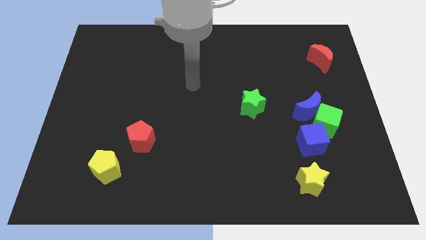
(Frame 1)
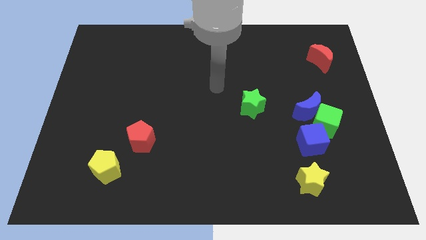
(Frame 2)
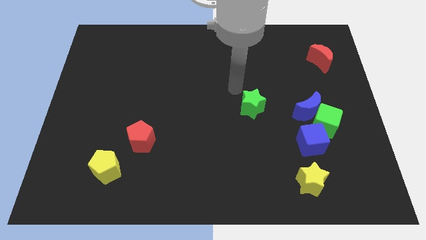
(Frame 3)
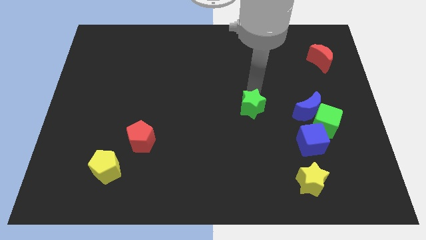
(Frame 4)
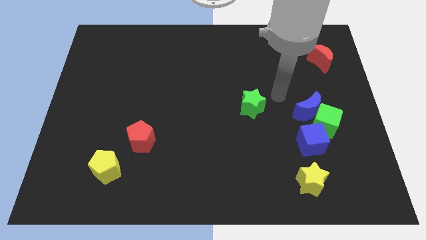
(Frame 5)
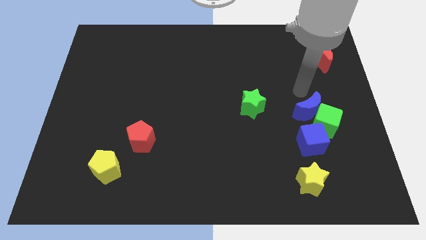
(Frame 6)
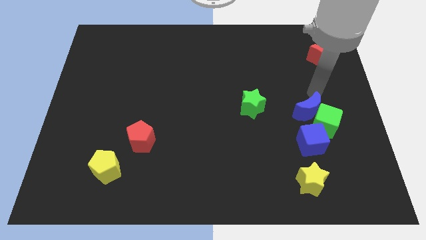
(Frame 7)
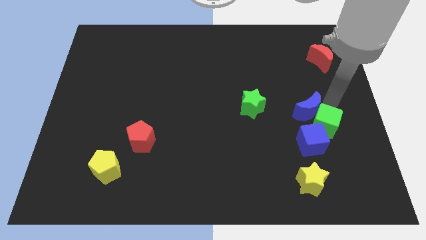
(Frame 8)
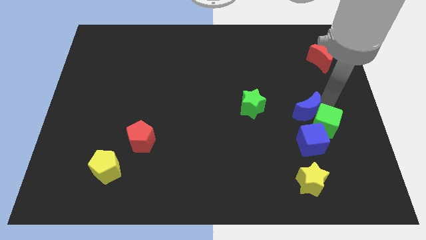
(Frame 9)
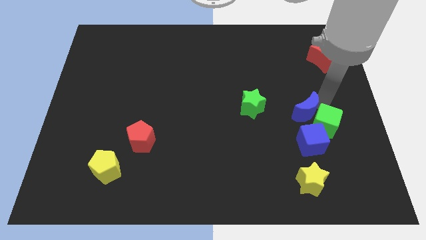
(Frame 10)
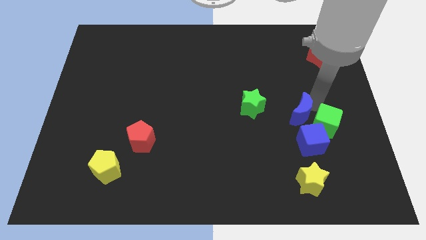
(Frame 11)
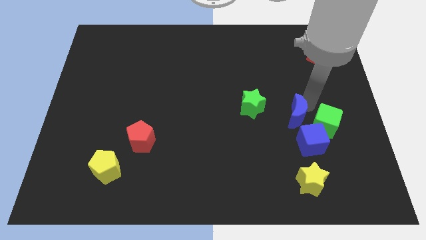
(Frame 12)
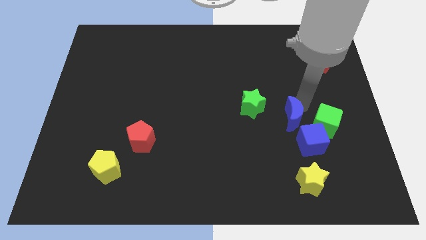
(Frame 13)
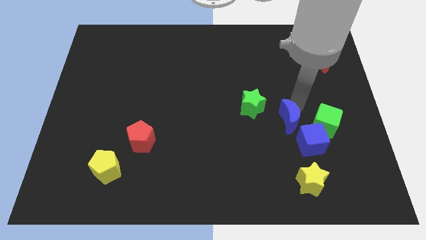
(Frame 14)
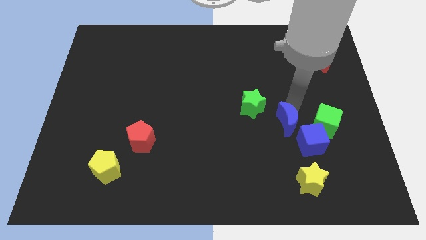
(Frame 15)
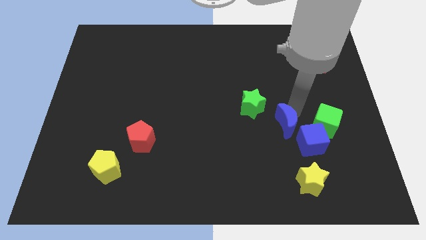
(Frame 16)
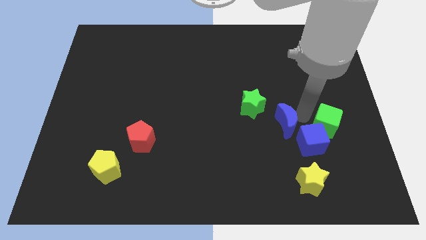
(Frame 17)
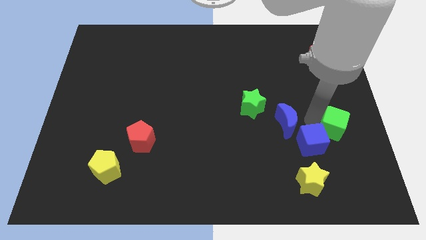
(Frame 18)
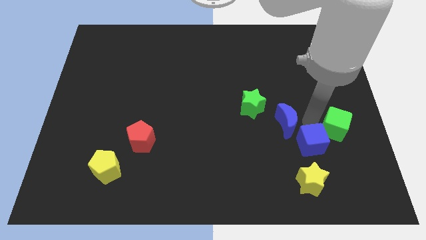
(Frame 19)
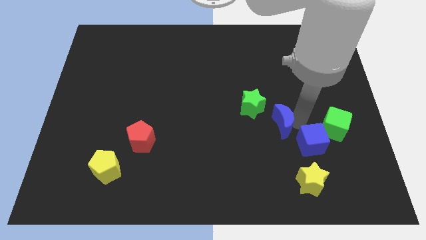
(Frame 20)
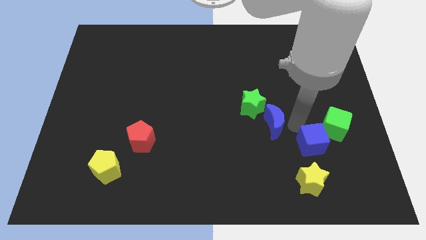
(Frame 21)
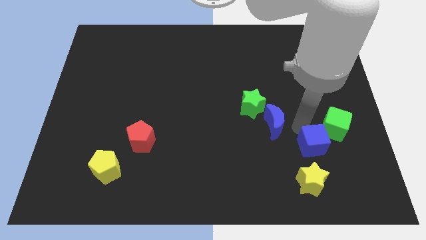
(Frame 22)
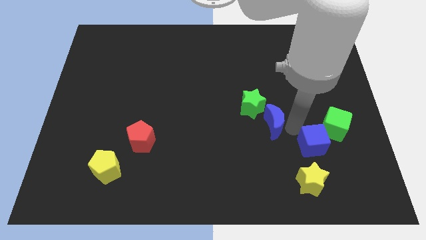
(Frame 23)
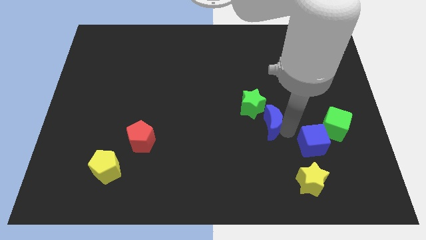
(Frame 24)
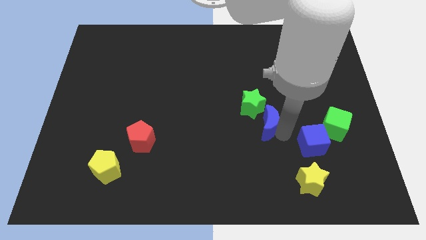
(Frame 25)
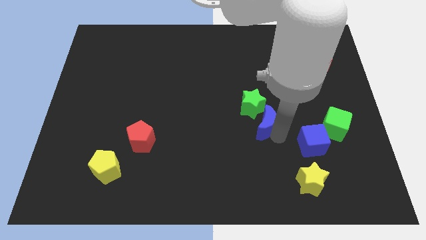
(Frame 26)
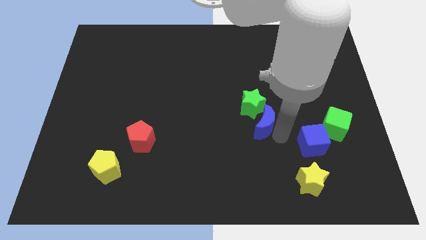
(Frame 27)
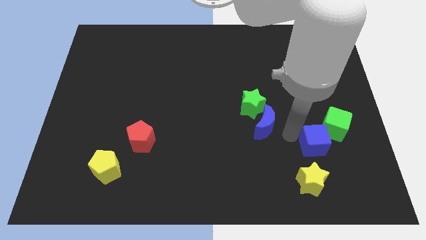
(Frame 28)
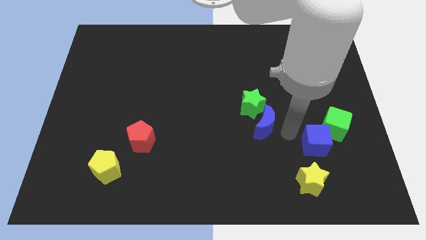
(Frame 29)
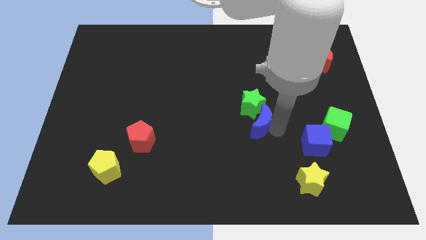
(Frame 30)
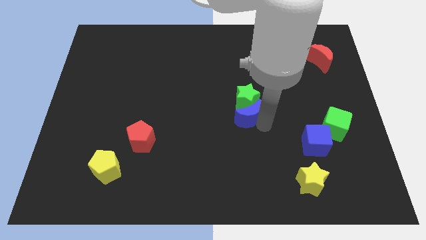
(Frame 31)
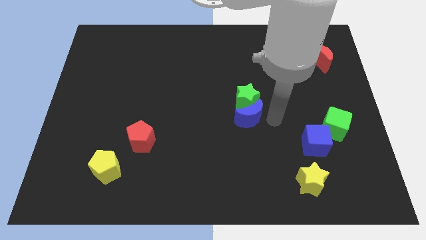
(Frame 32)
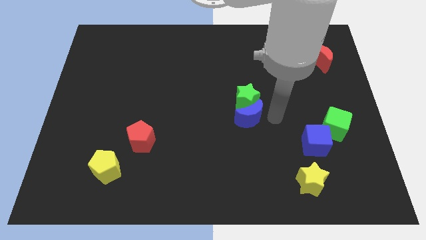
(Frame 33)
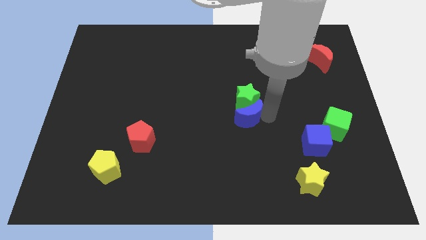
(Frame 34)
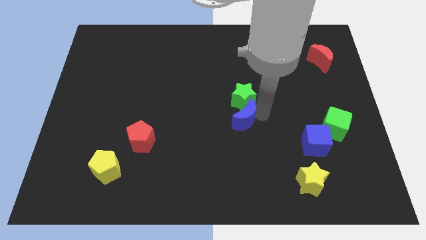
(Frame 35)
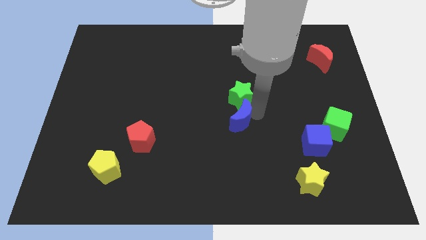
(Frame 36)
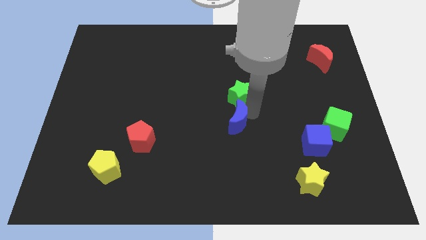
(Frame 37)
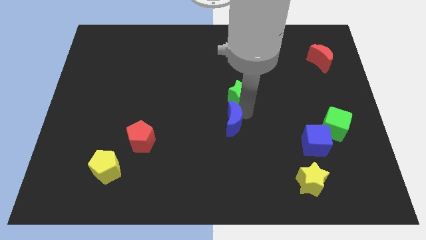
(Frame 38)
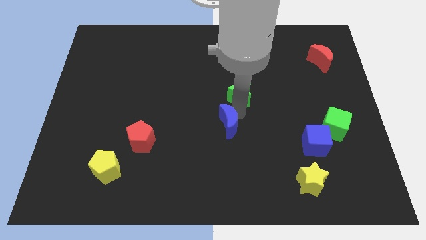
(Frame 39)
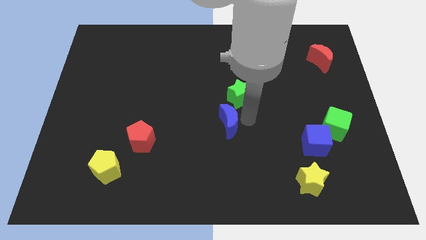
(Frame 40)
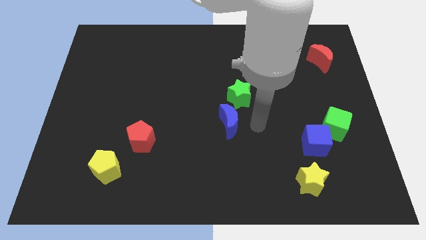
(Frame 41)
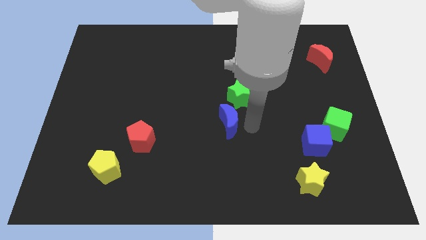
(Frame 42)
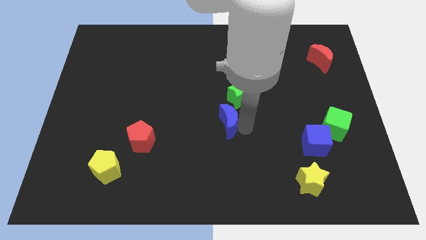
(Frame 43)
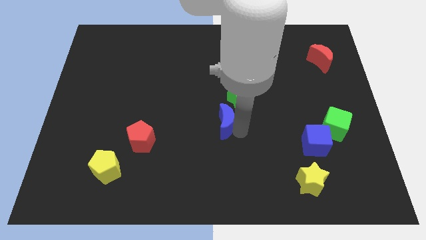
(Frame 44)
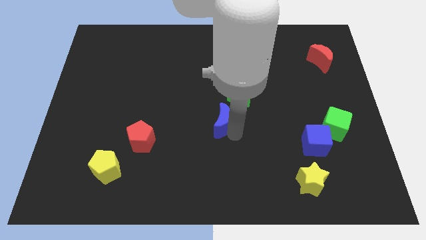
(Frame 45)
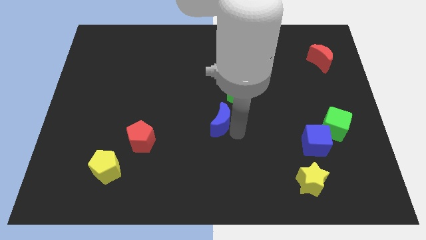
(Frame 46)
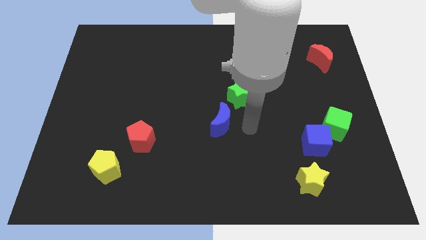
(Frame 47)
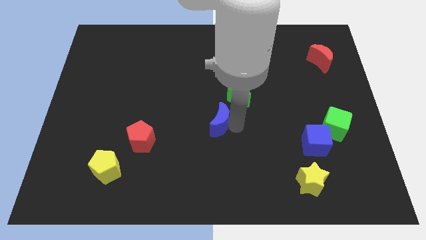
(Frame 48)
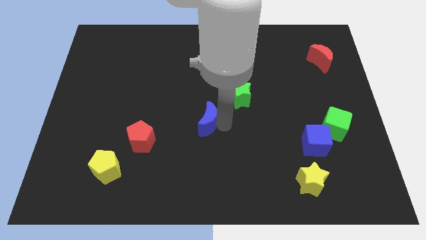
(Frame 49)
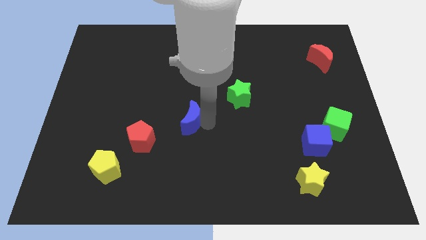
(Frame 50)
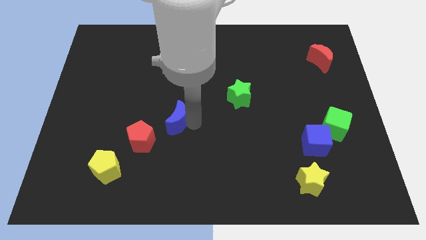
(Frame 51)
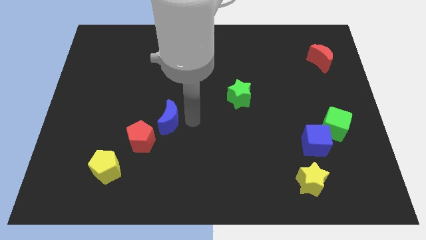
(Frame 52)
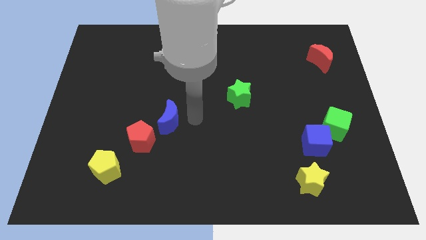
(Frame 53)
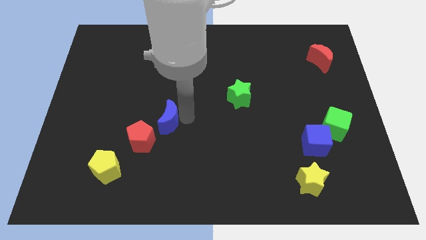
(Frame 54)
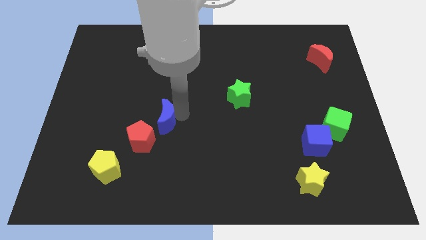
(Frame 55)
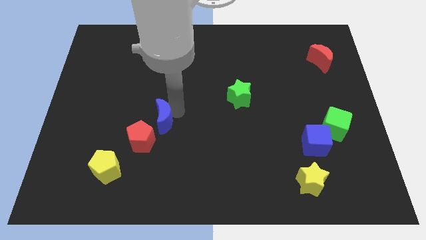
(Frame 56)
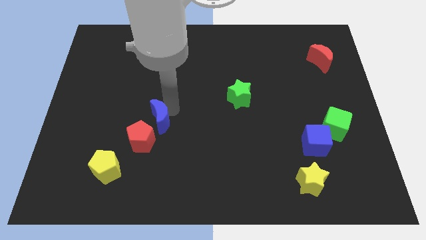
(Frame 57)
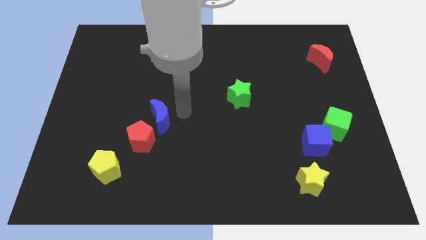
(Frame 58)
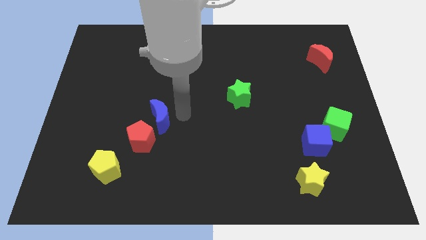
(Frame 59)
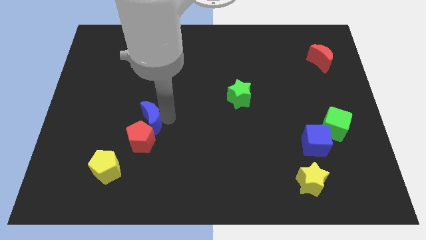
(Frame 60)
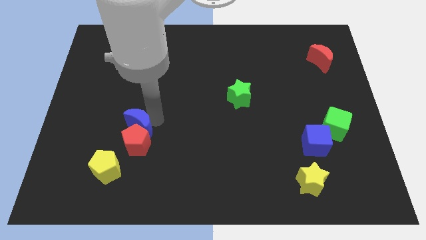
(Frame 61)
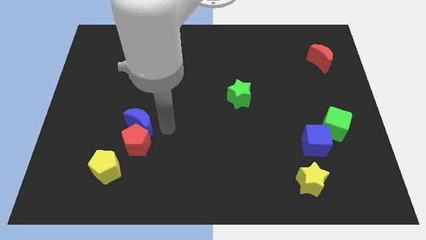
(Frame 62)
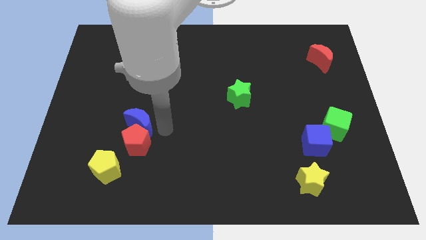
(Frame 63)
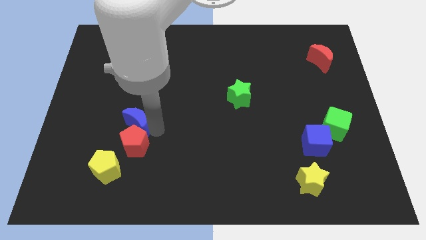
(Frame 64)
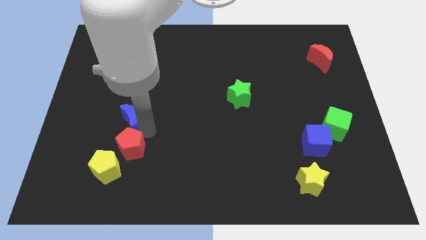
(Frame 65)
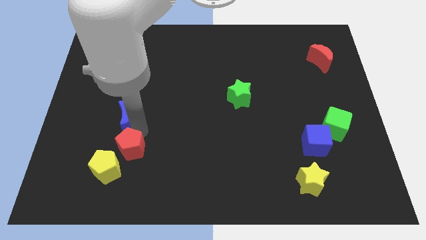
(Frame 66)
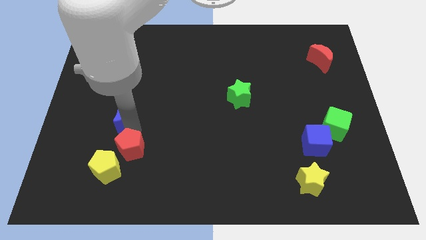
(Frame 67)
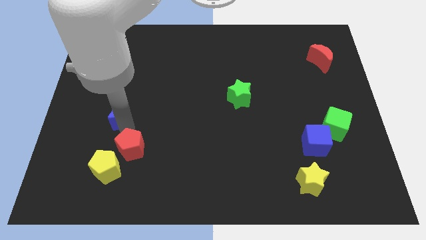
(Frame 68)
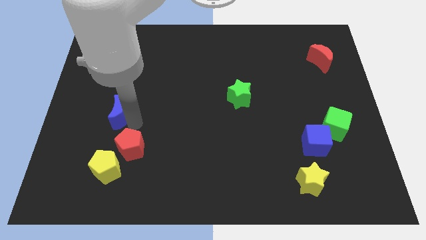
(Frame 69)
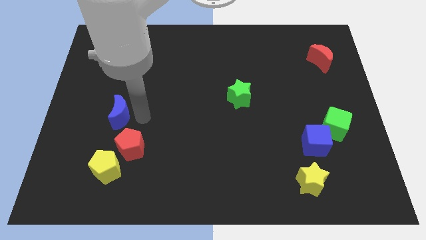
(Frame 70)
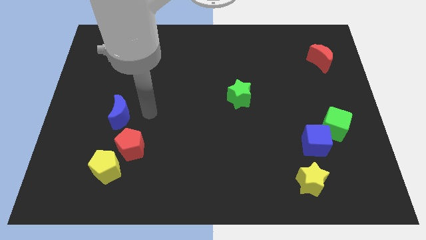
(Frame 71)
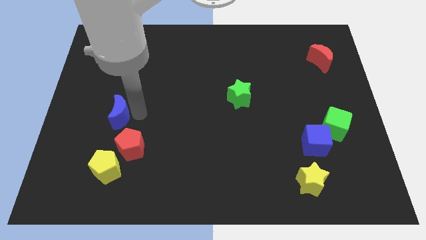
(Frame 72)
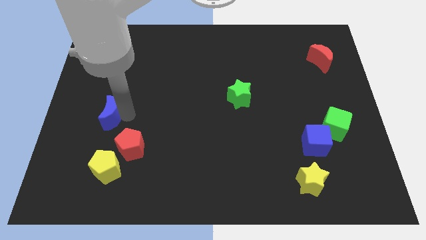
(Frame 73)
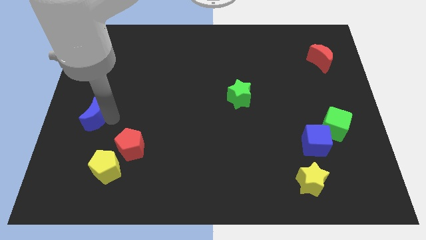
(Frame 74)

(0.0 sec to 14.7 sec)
put the blue moon to the left side of the board
